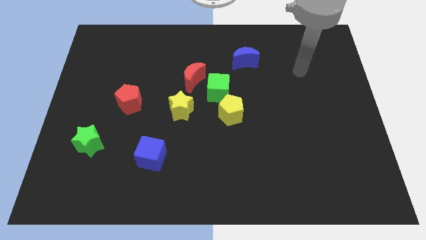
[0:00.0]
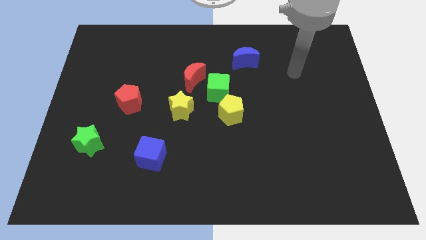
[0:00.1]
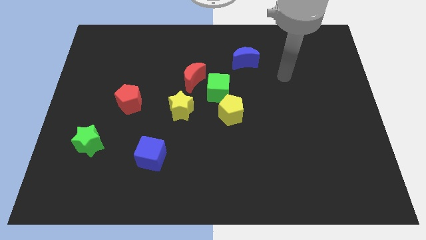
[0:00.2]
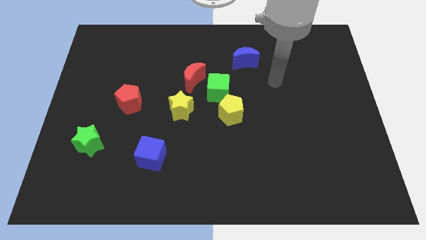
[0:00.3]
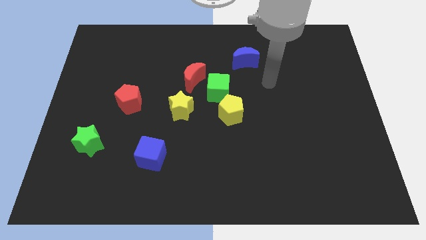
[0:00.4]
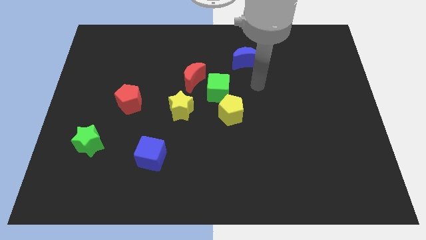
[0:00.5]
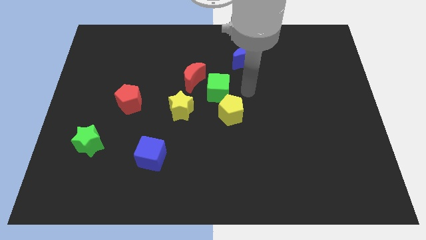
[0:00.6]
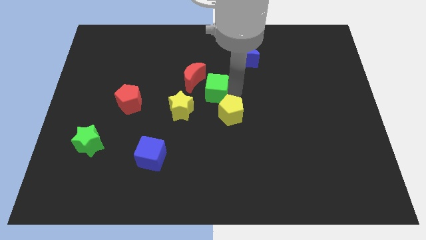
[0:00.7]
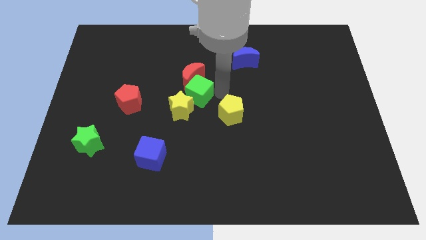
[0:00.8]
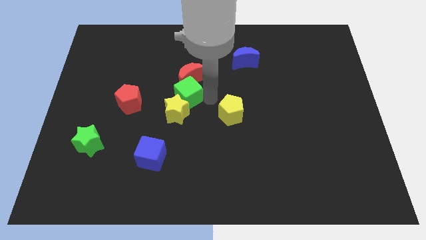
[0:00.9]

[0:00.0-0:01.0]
move the yellow pentagon away from the green cube

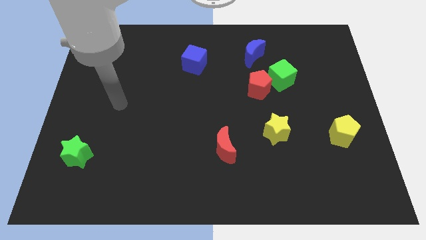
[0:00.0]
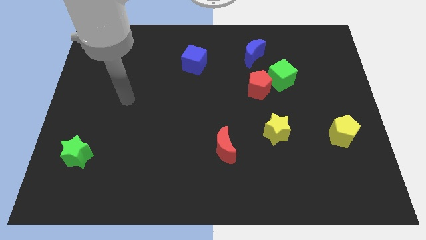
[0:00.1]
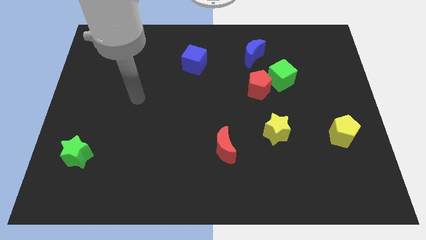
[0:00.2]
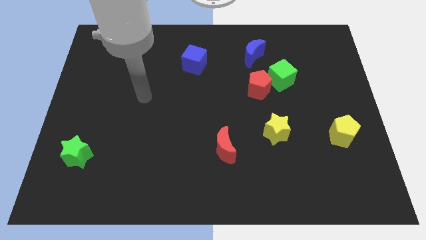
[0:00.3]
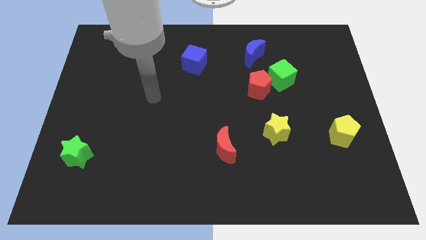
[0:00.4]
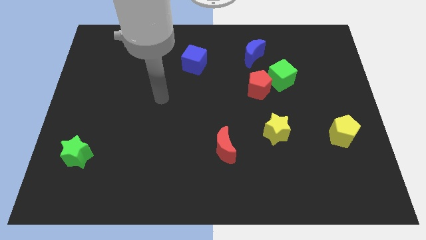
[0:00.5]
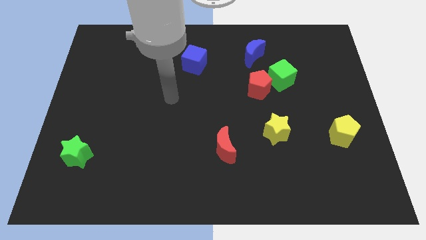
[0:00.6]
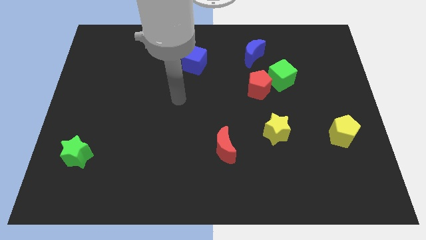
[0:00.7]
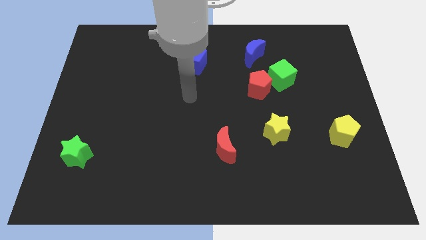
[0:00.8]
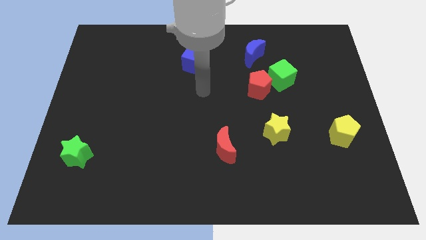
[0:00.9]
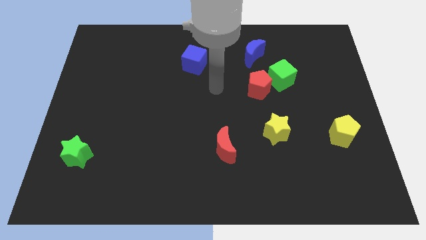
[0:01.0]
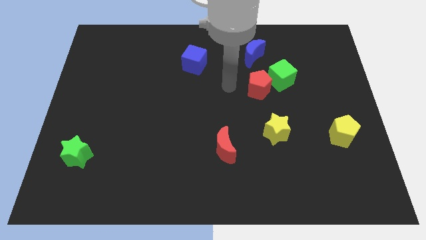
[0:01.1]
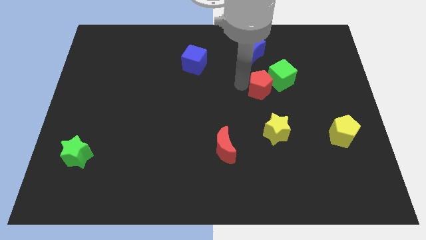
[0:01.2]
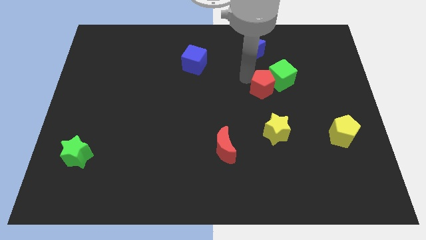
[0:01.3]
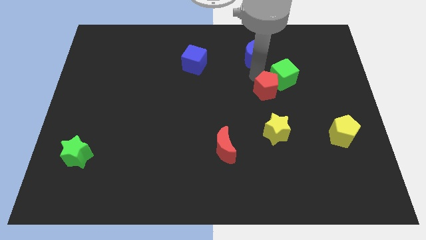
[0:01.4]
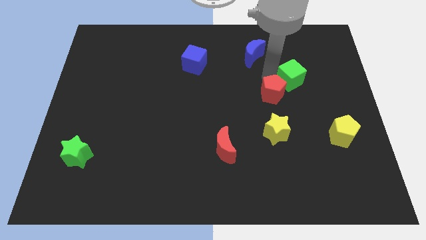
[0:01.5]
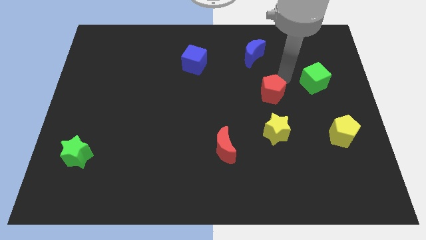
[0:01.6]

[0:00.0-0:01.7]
pull the red pentagon apart from the green cube

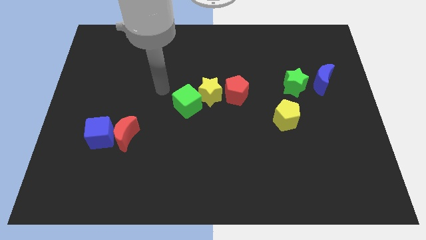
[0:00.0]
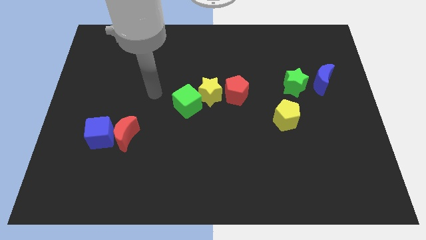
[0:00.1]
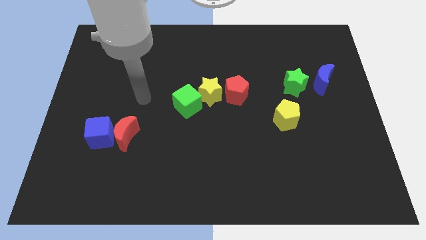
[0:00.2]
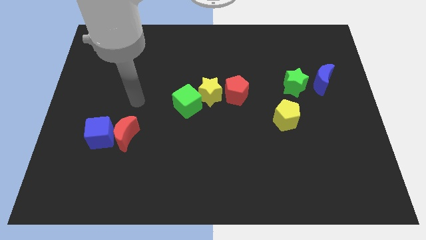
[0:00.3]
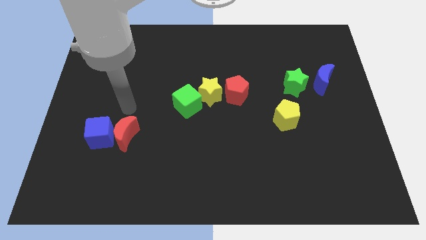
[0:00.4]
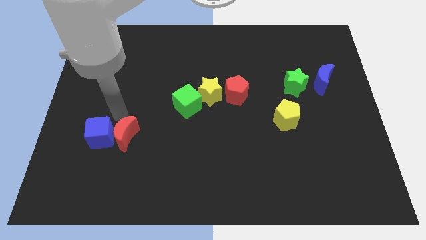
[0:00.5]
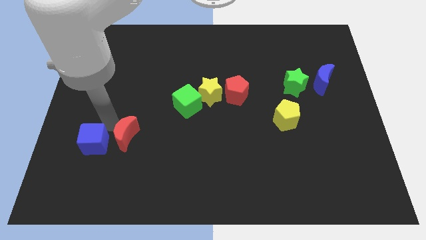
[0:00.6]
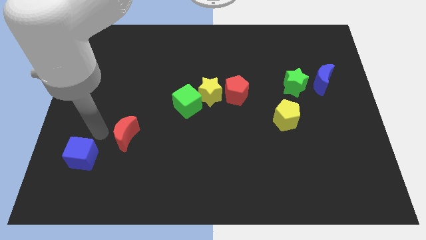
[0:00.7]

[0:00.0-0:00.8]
move the red moon away from the blue cube

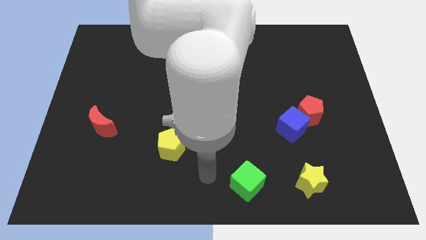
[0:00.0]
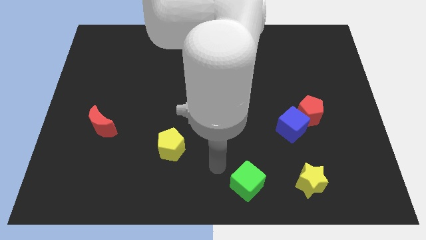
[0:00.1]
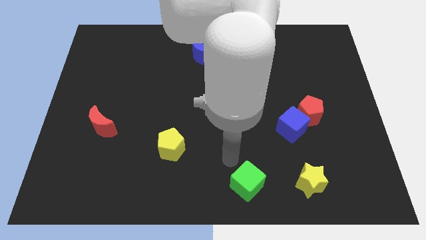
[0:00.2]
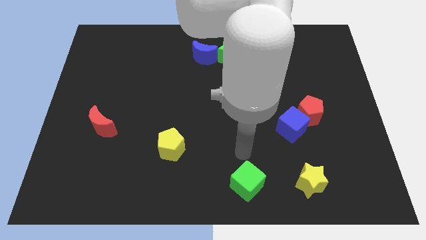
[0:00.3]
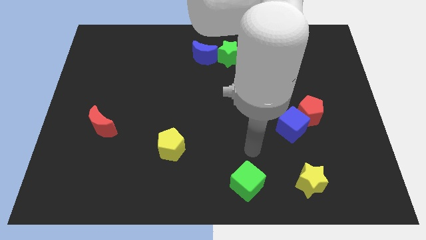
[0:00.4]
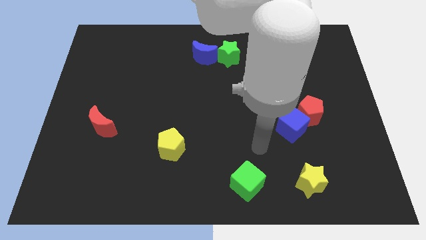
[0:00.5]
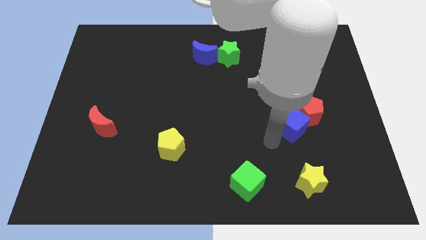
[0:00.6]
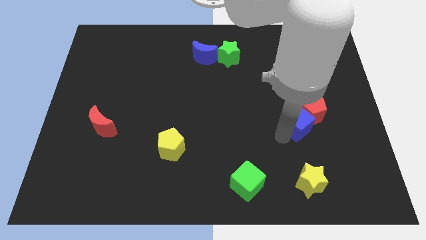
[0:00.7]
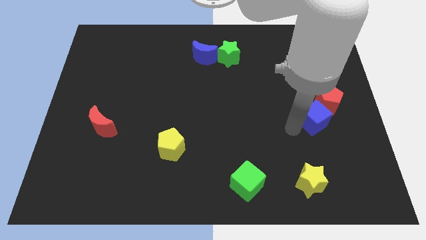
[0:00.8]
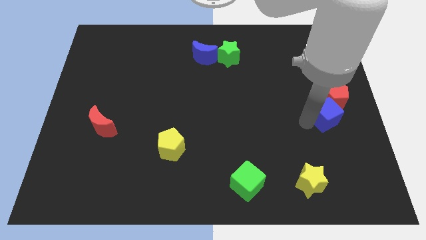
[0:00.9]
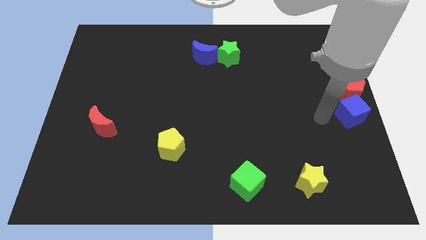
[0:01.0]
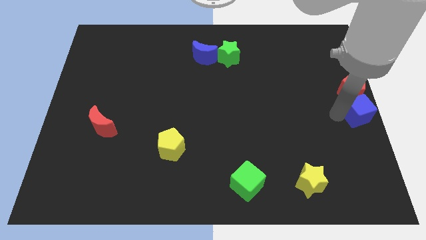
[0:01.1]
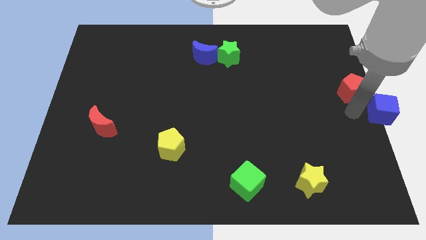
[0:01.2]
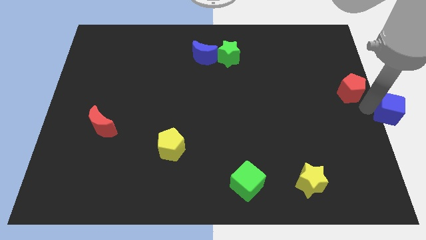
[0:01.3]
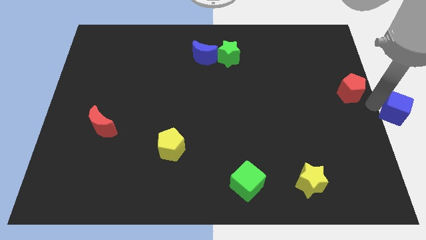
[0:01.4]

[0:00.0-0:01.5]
move the red pentagon away from the blue cube

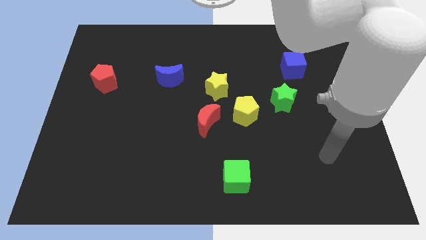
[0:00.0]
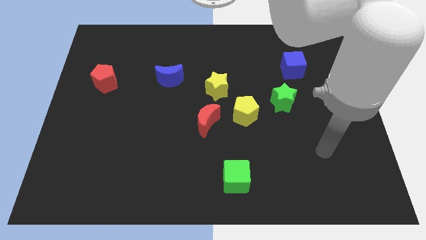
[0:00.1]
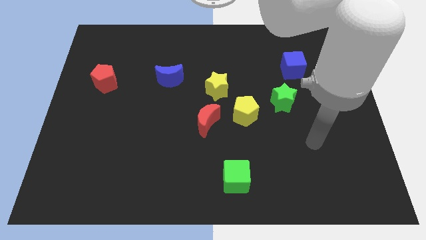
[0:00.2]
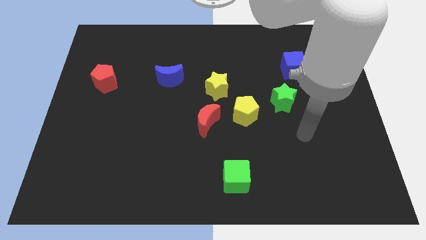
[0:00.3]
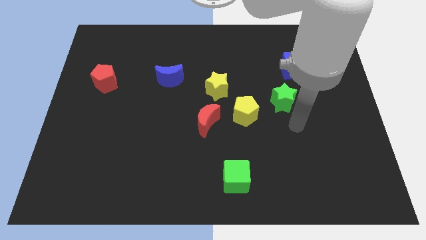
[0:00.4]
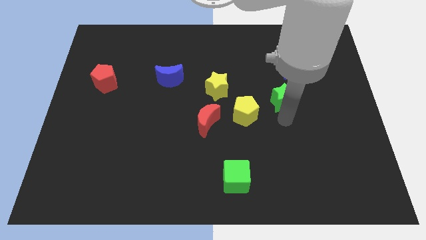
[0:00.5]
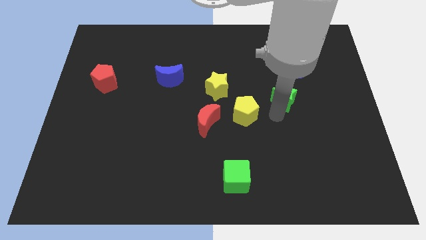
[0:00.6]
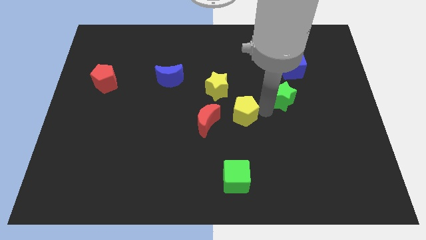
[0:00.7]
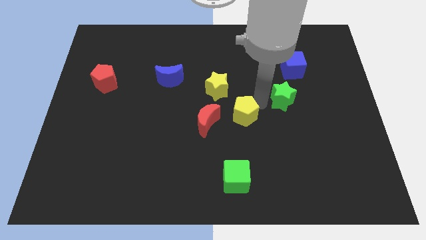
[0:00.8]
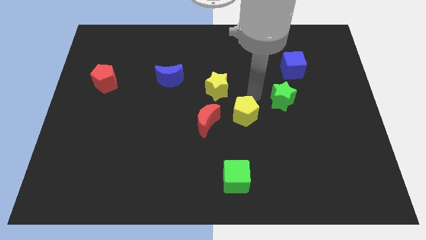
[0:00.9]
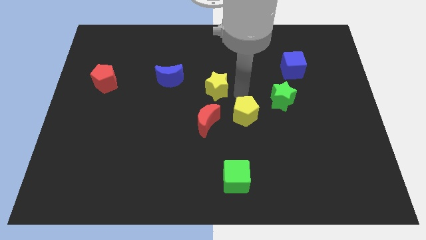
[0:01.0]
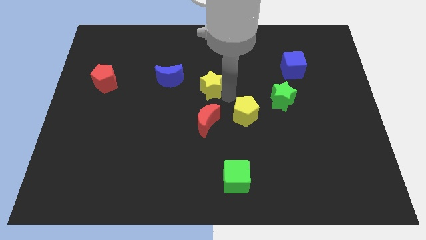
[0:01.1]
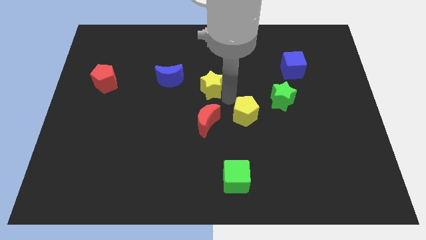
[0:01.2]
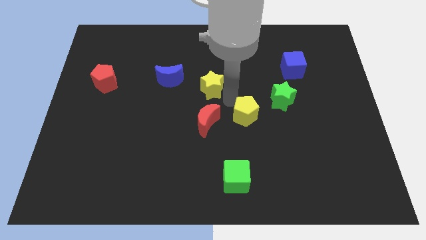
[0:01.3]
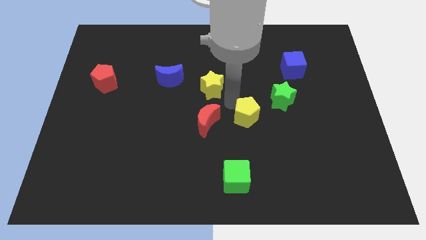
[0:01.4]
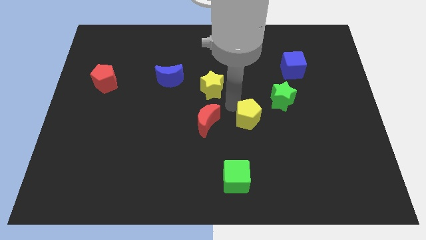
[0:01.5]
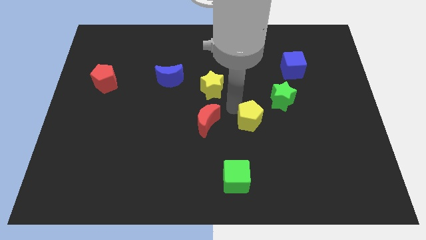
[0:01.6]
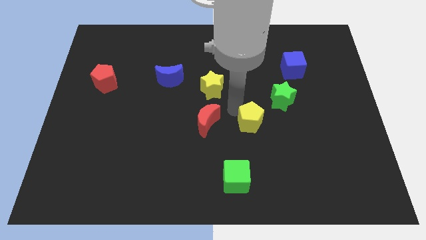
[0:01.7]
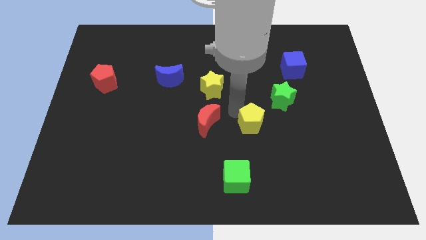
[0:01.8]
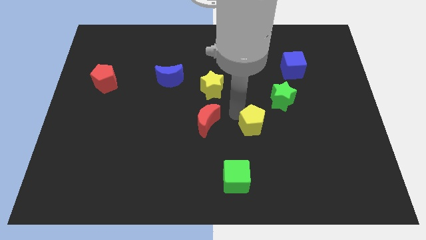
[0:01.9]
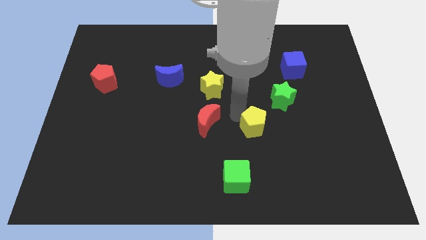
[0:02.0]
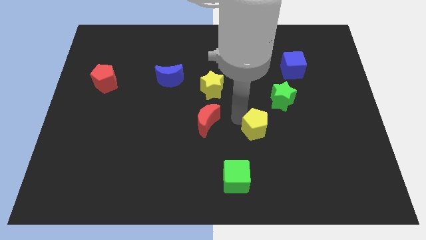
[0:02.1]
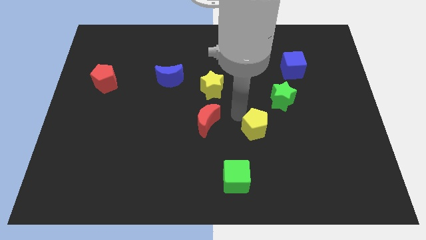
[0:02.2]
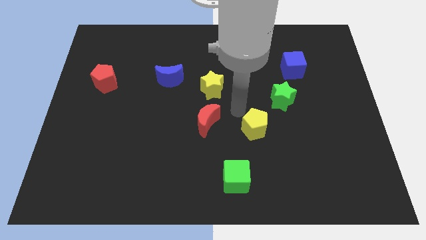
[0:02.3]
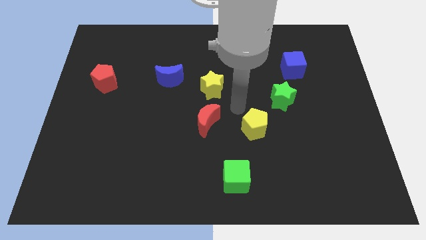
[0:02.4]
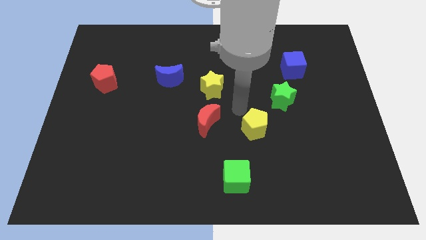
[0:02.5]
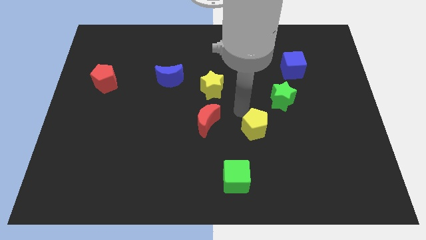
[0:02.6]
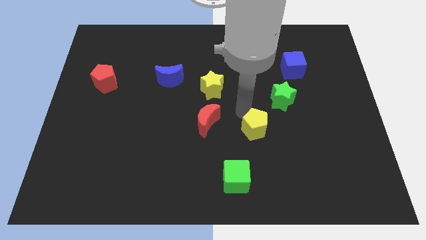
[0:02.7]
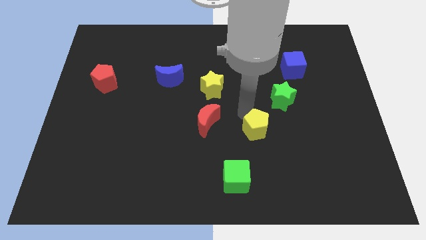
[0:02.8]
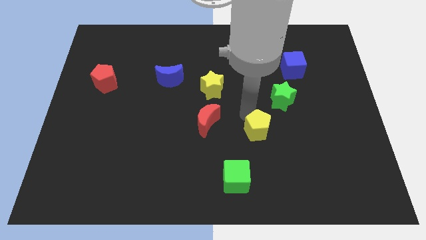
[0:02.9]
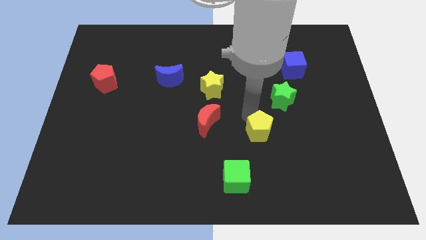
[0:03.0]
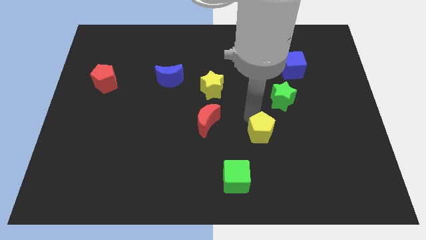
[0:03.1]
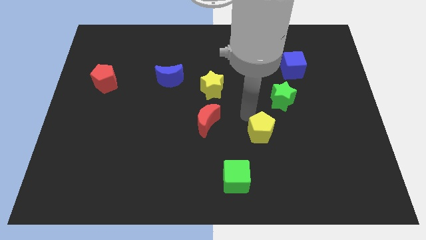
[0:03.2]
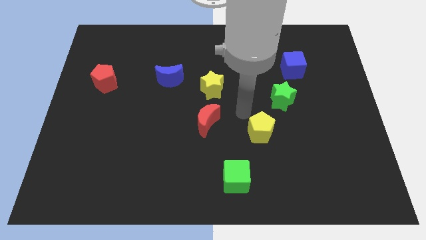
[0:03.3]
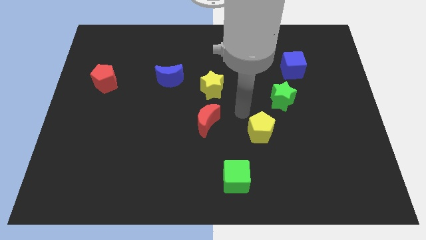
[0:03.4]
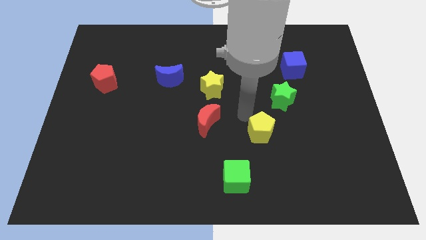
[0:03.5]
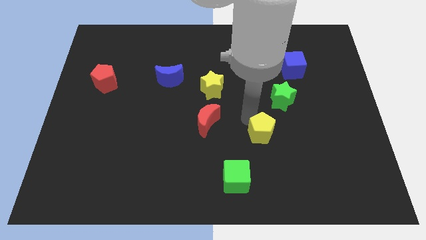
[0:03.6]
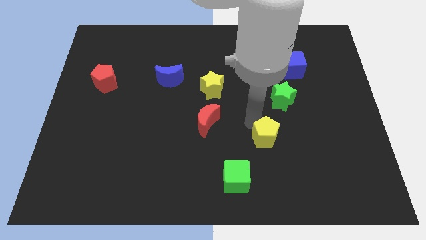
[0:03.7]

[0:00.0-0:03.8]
separate the yellow pentagon from the group

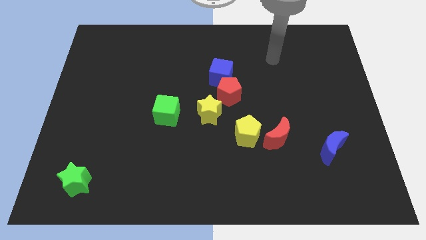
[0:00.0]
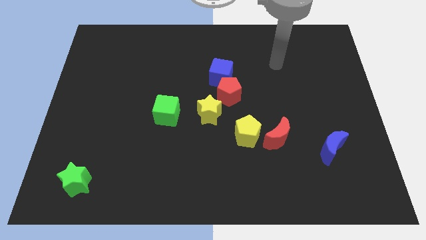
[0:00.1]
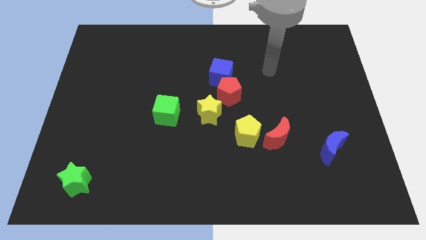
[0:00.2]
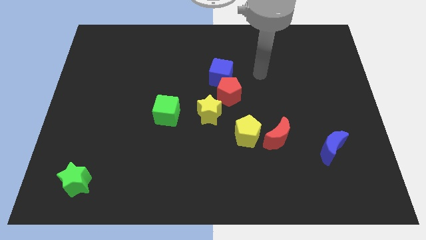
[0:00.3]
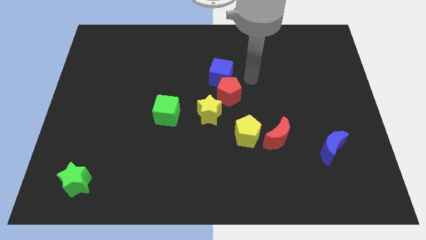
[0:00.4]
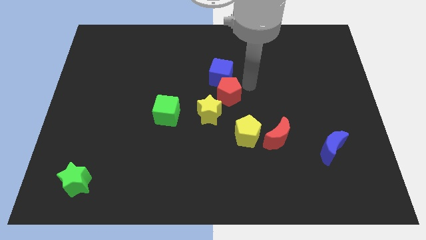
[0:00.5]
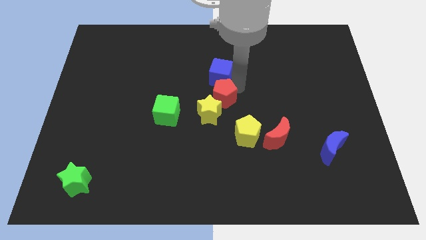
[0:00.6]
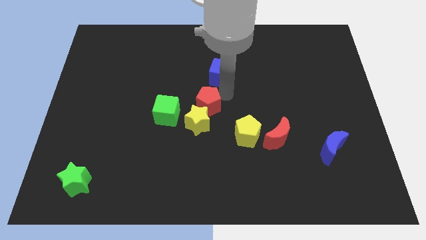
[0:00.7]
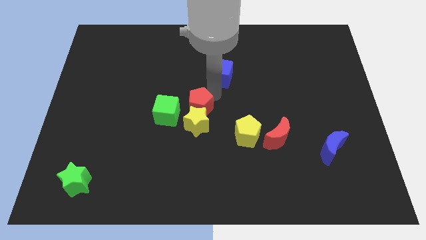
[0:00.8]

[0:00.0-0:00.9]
move the blue cube away from the red pentagon
